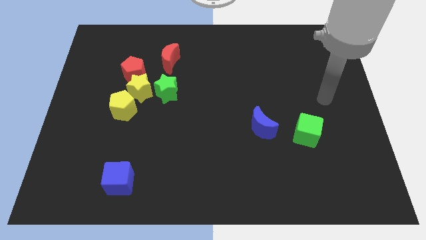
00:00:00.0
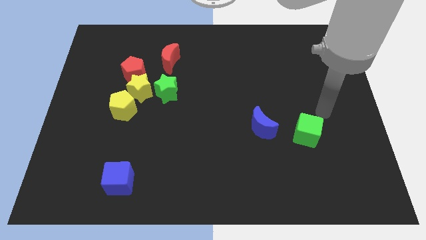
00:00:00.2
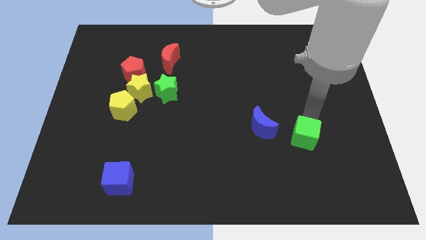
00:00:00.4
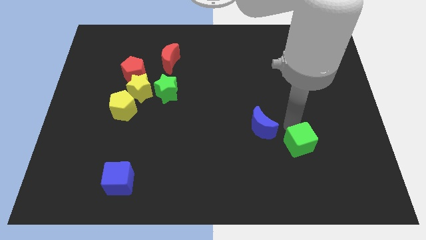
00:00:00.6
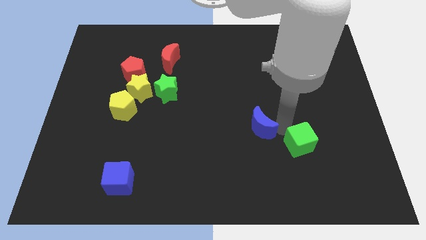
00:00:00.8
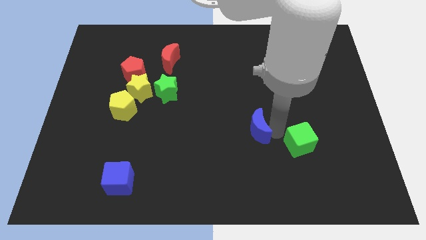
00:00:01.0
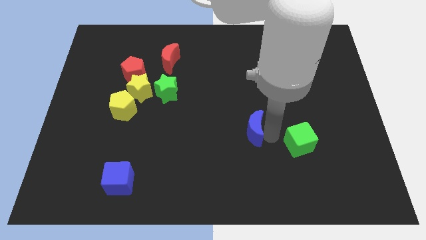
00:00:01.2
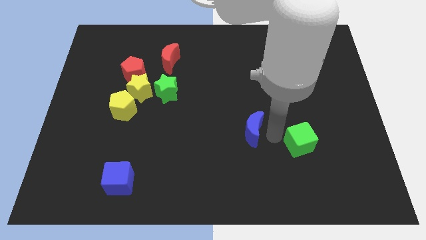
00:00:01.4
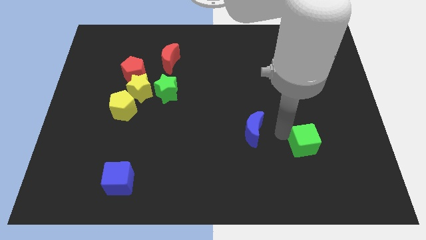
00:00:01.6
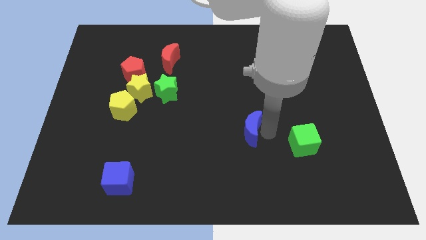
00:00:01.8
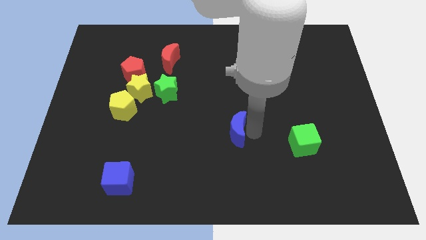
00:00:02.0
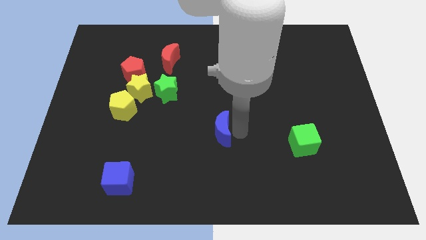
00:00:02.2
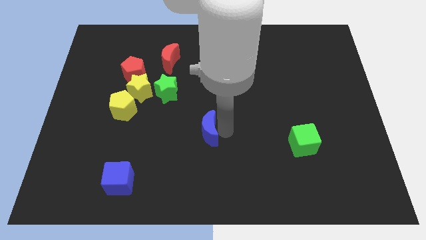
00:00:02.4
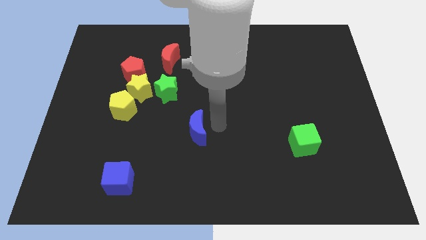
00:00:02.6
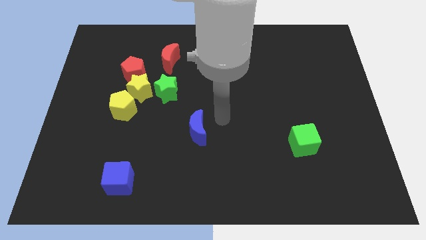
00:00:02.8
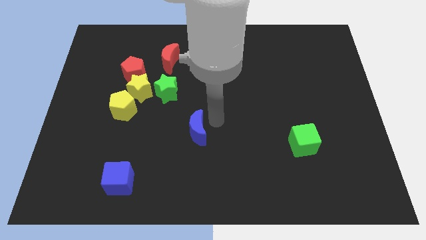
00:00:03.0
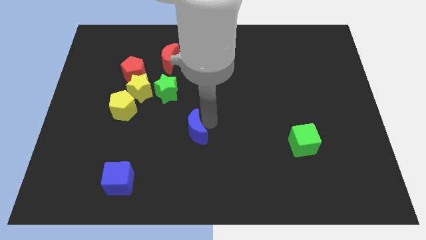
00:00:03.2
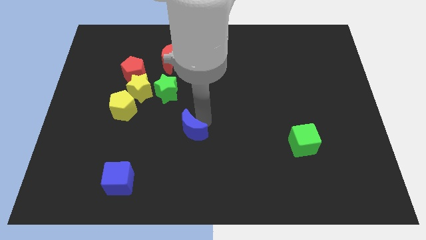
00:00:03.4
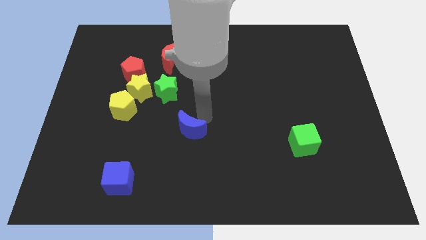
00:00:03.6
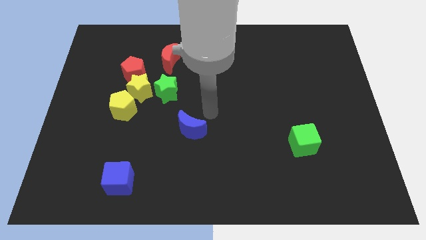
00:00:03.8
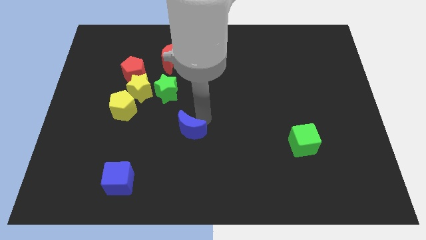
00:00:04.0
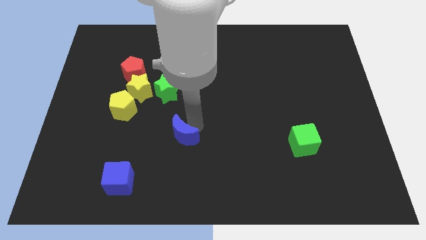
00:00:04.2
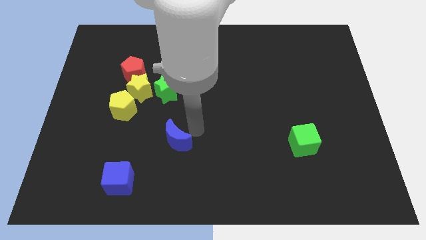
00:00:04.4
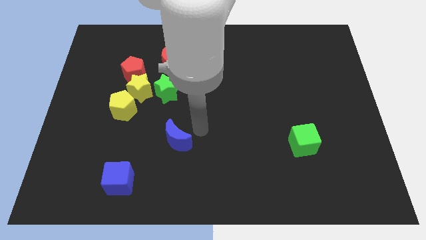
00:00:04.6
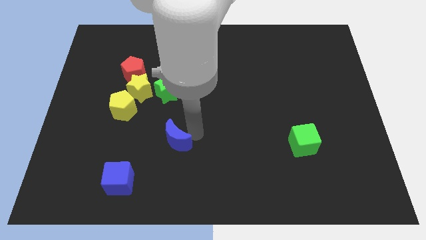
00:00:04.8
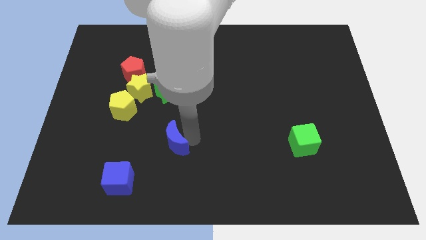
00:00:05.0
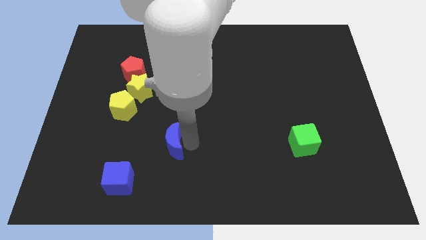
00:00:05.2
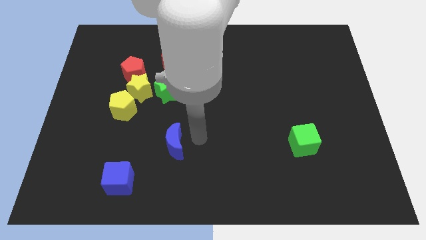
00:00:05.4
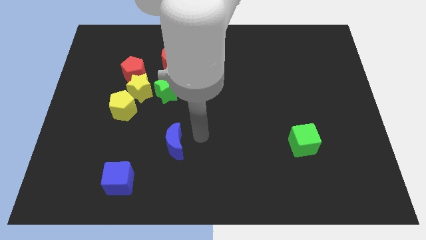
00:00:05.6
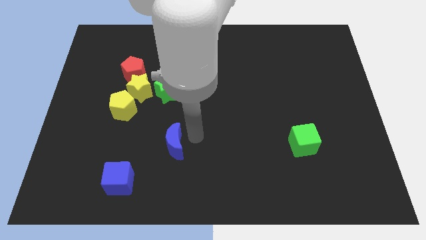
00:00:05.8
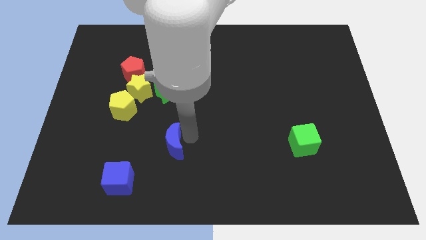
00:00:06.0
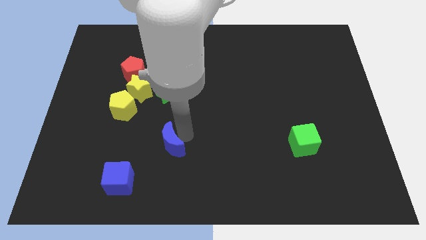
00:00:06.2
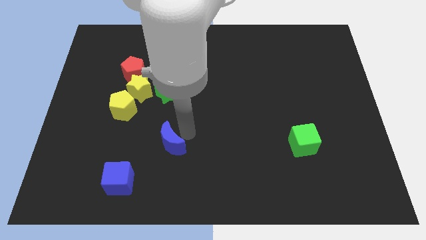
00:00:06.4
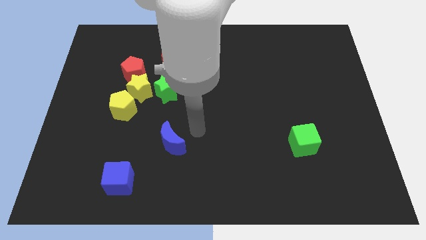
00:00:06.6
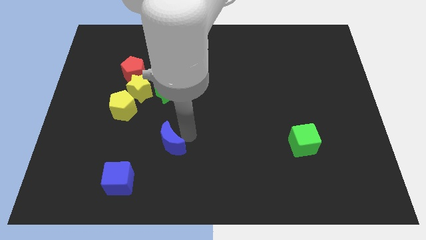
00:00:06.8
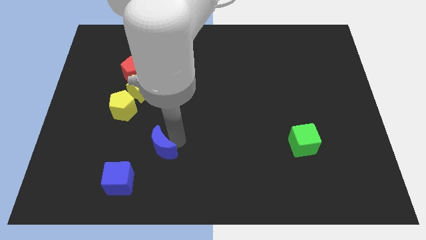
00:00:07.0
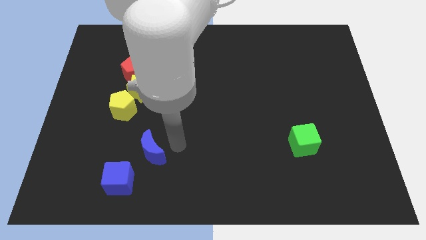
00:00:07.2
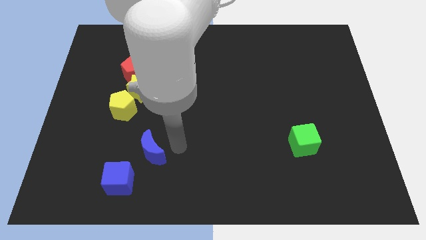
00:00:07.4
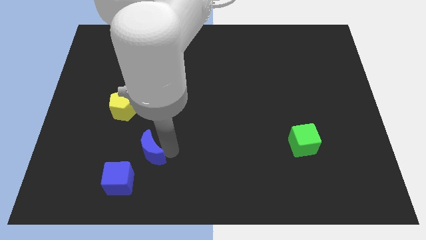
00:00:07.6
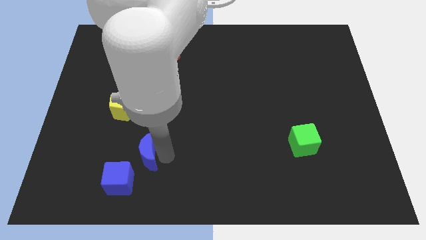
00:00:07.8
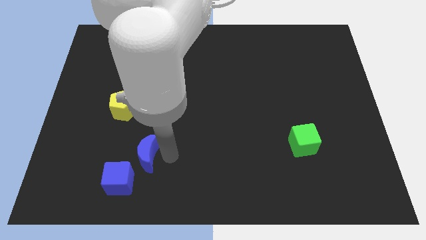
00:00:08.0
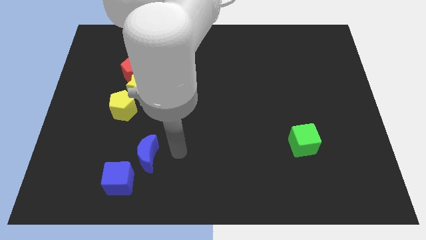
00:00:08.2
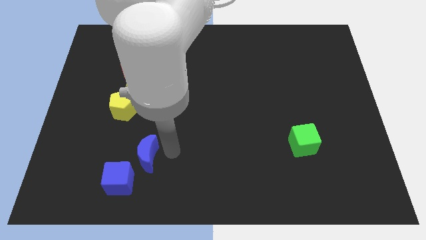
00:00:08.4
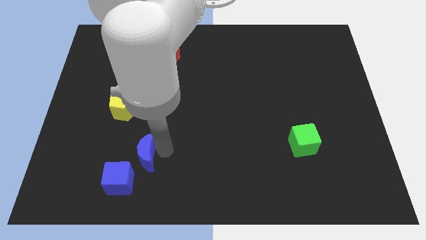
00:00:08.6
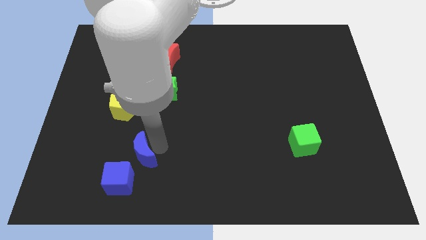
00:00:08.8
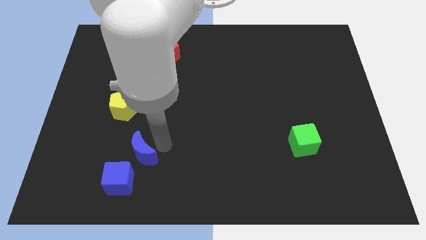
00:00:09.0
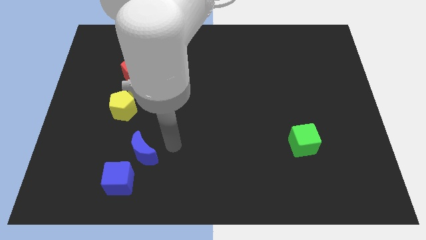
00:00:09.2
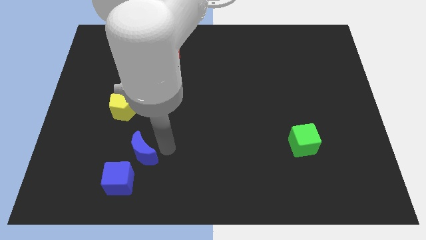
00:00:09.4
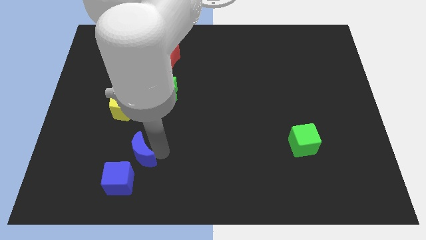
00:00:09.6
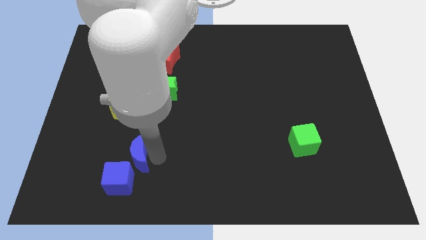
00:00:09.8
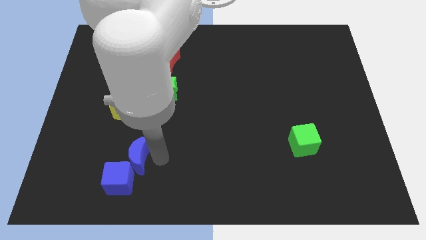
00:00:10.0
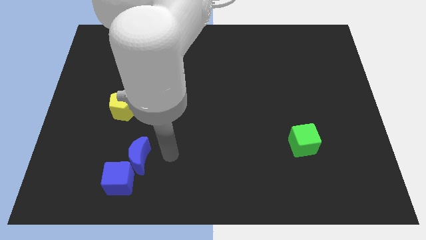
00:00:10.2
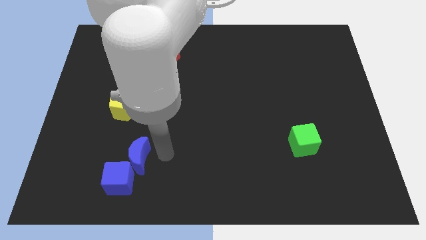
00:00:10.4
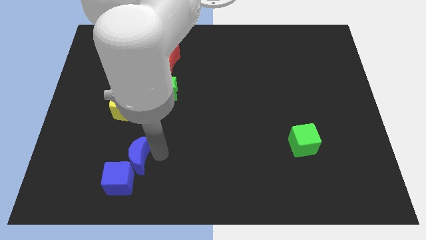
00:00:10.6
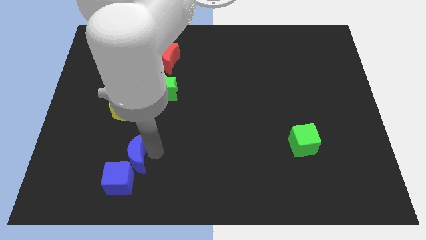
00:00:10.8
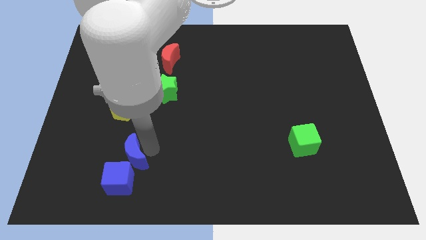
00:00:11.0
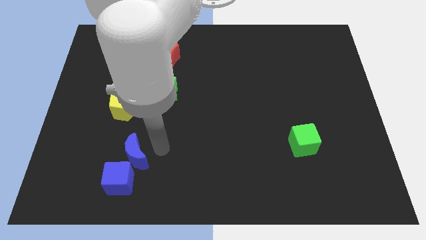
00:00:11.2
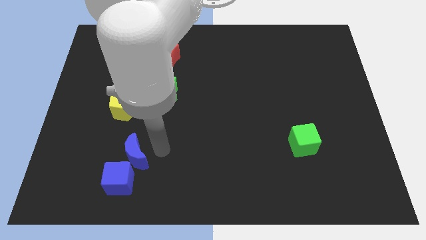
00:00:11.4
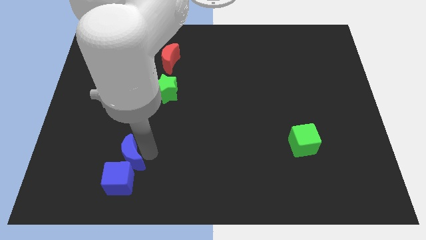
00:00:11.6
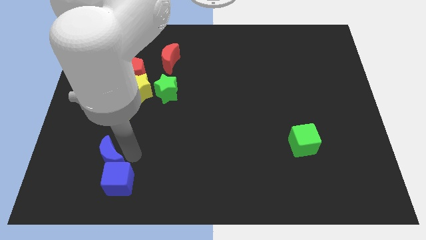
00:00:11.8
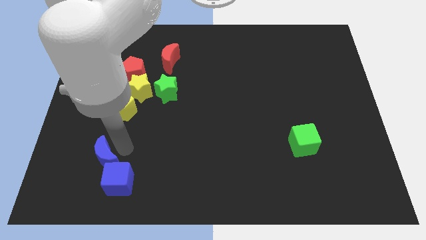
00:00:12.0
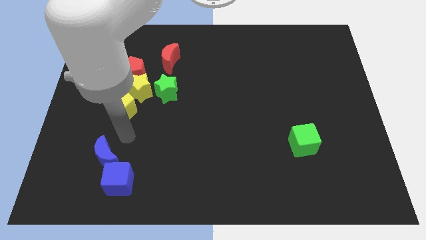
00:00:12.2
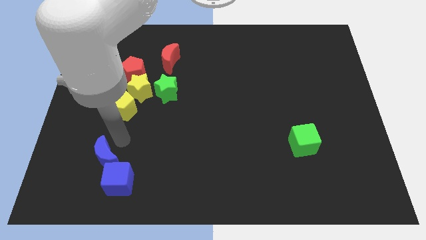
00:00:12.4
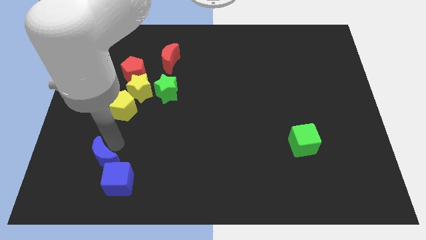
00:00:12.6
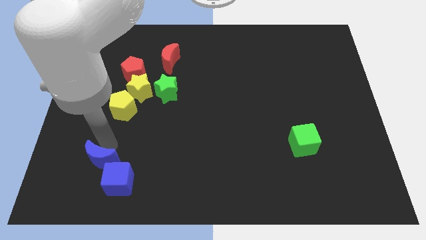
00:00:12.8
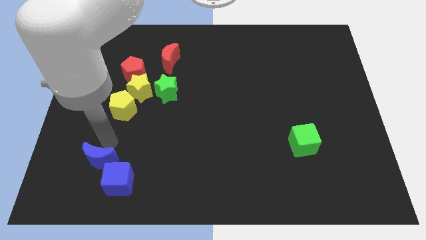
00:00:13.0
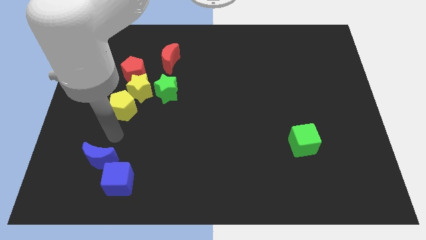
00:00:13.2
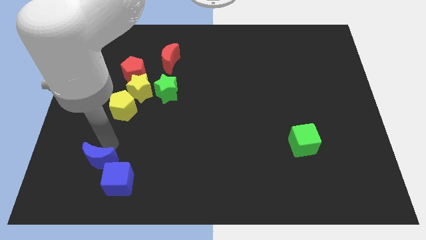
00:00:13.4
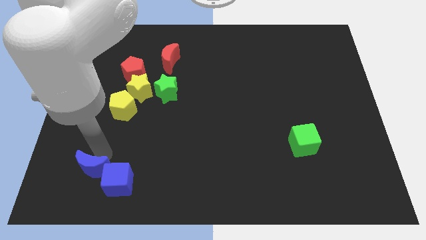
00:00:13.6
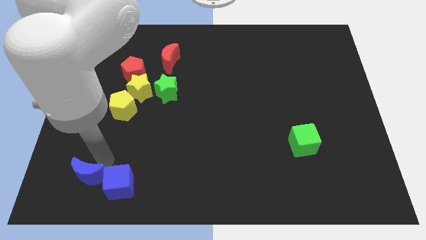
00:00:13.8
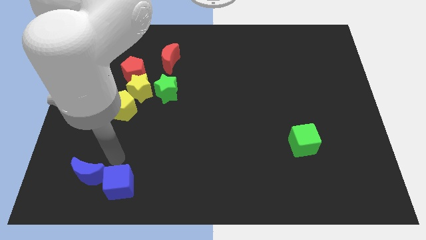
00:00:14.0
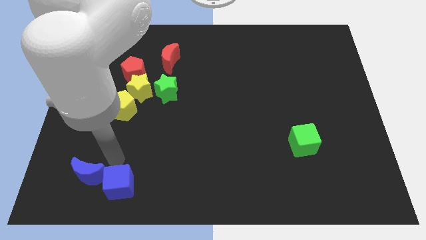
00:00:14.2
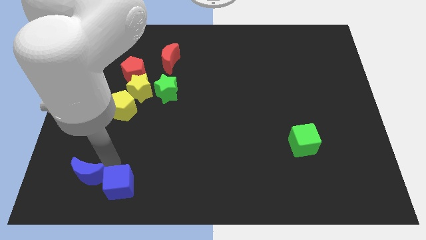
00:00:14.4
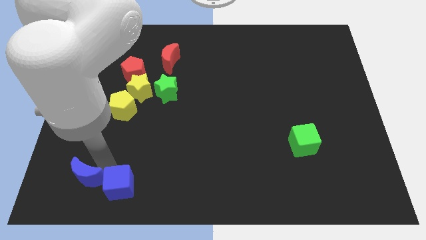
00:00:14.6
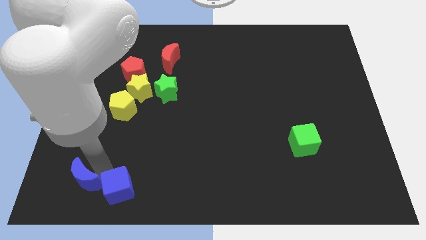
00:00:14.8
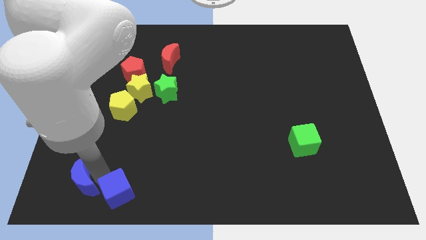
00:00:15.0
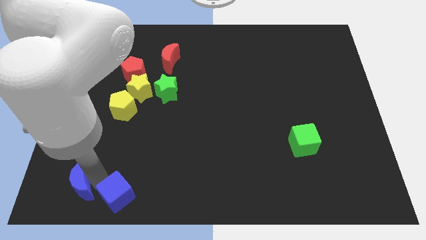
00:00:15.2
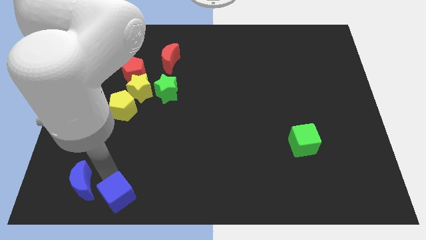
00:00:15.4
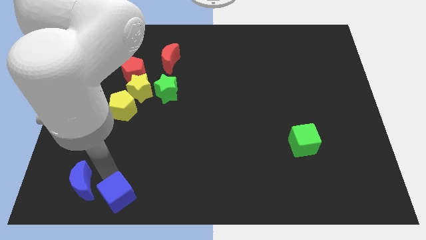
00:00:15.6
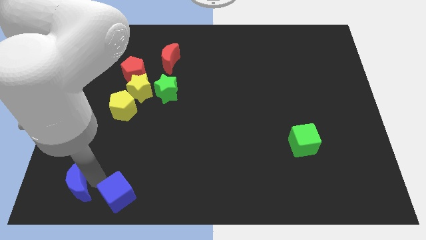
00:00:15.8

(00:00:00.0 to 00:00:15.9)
move the blue moon to the lower left corner
